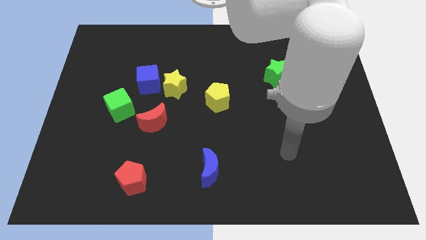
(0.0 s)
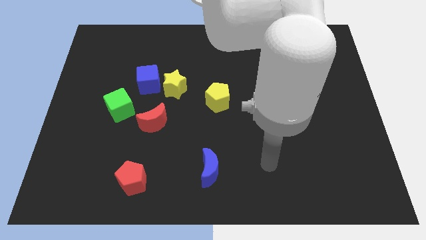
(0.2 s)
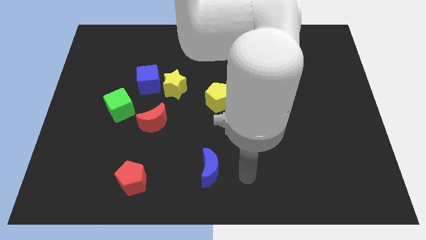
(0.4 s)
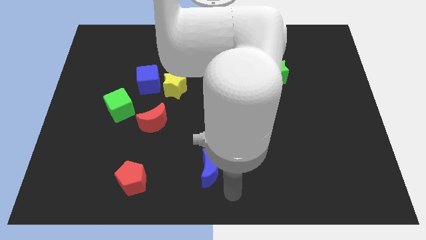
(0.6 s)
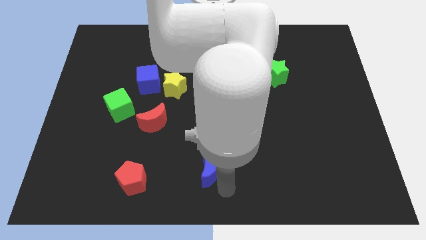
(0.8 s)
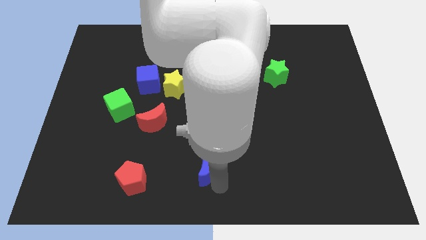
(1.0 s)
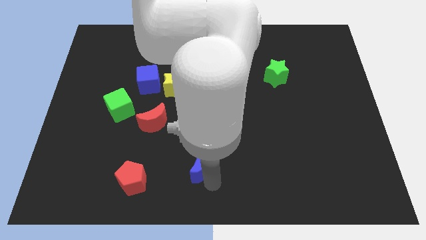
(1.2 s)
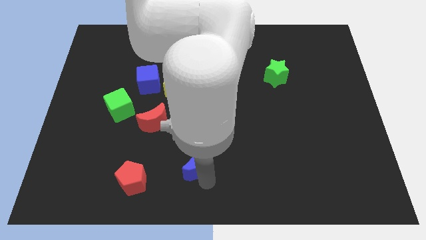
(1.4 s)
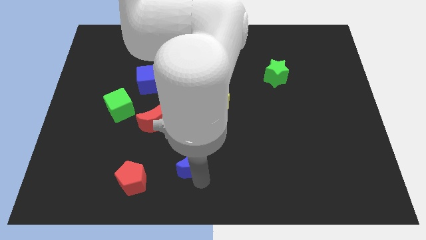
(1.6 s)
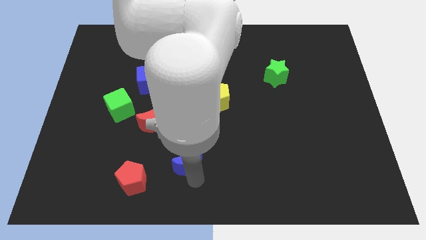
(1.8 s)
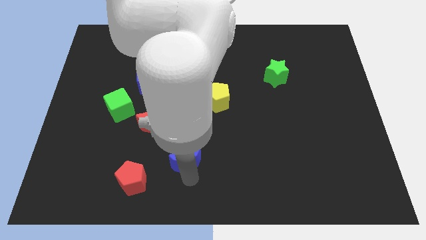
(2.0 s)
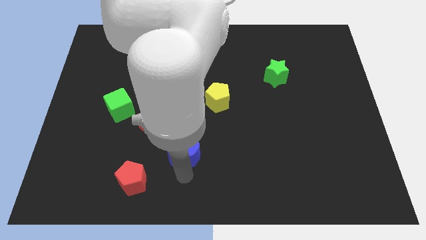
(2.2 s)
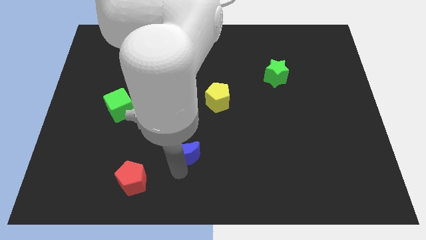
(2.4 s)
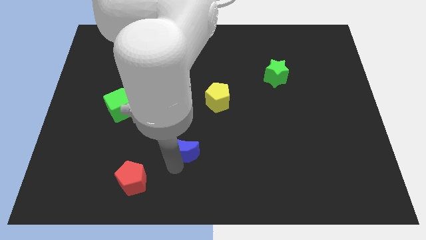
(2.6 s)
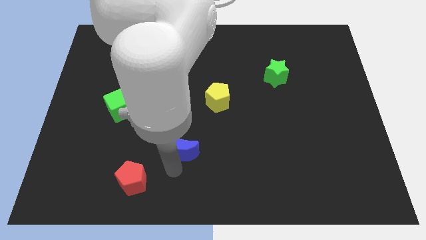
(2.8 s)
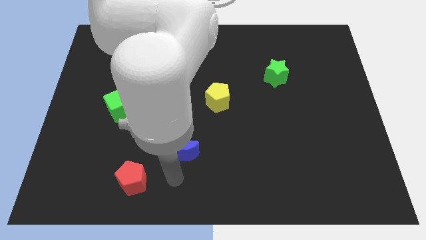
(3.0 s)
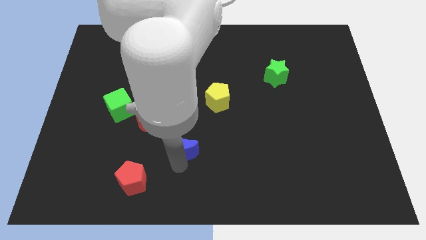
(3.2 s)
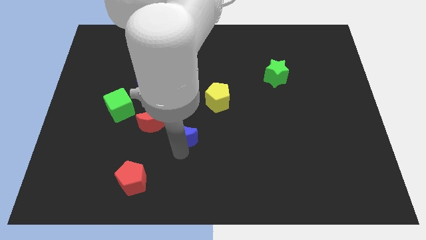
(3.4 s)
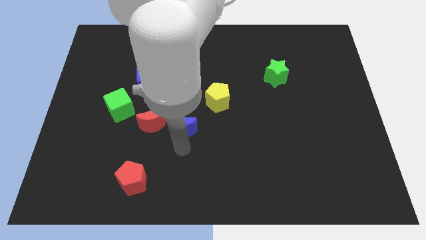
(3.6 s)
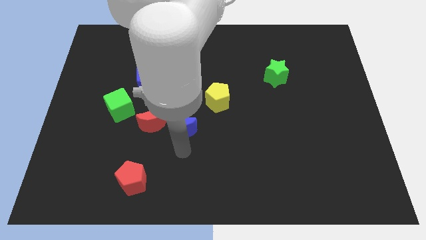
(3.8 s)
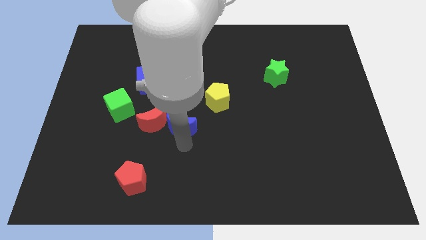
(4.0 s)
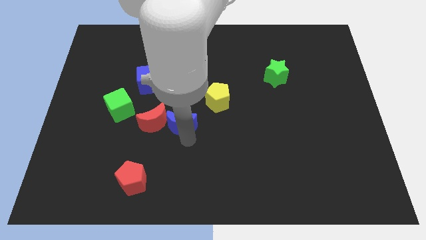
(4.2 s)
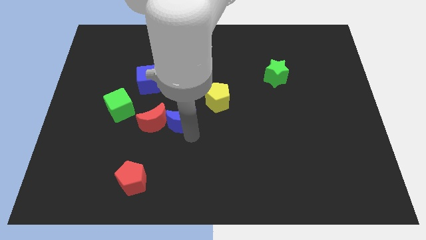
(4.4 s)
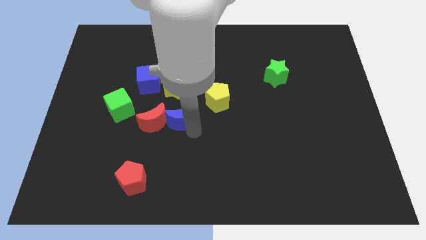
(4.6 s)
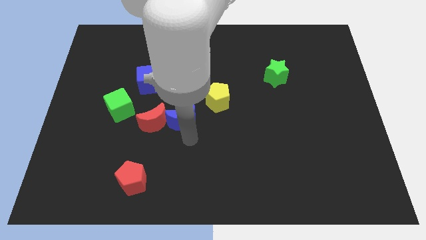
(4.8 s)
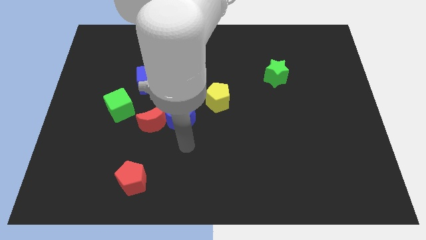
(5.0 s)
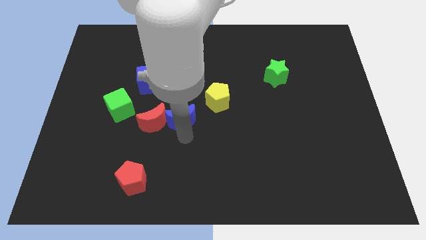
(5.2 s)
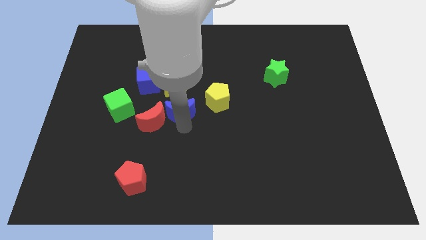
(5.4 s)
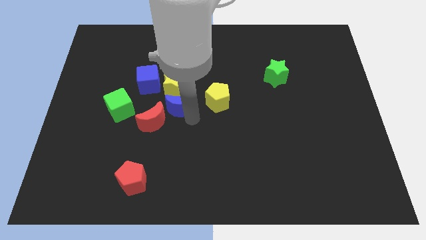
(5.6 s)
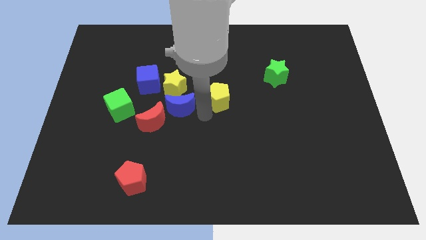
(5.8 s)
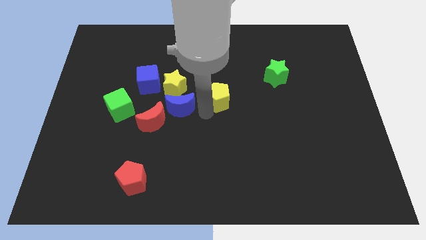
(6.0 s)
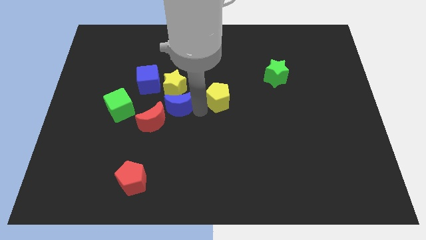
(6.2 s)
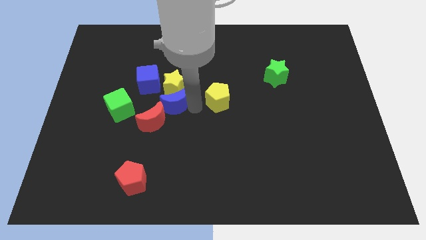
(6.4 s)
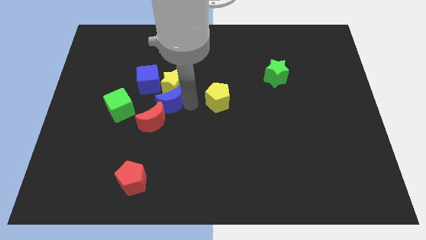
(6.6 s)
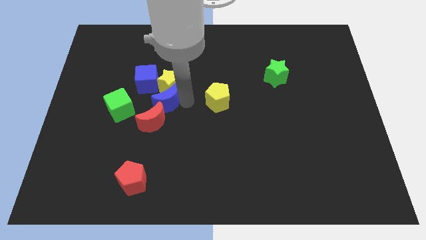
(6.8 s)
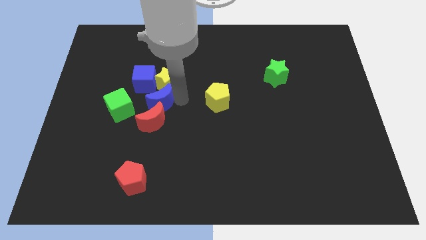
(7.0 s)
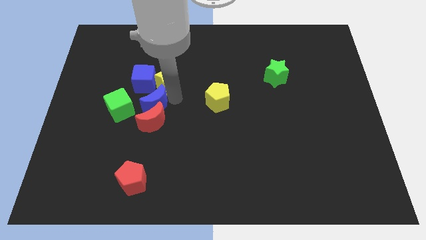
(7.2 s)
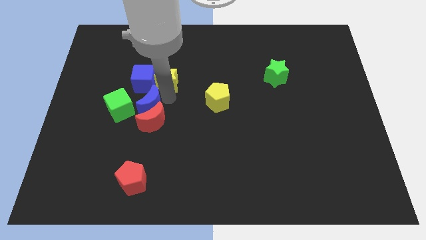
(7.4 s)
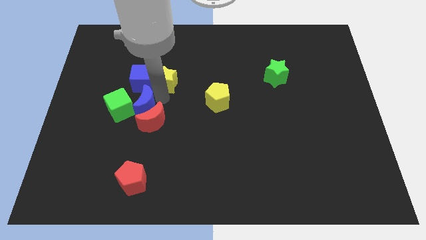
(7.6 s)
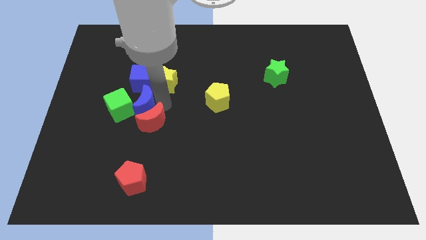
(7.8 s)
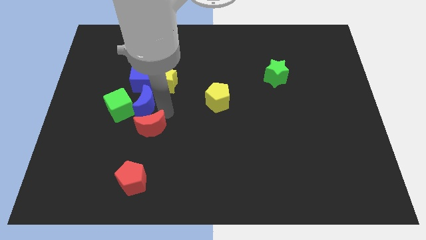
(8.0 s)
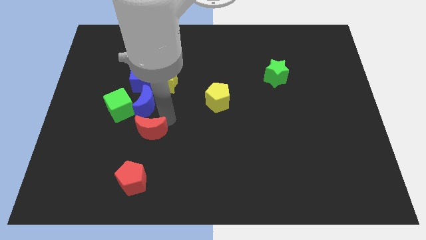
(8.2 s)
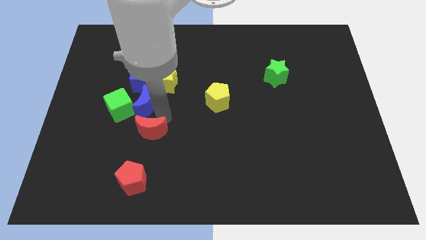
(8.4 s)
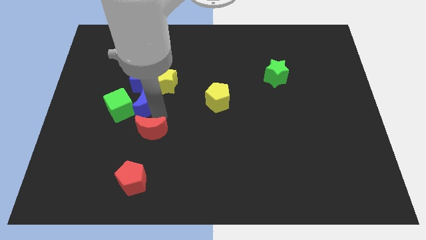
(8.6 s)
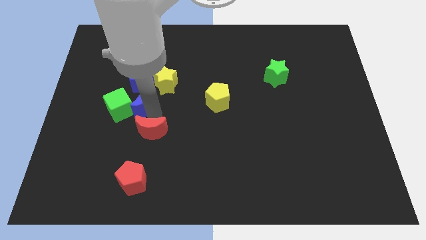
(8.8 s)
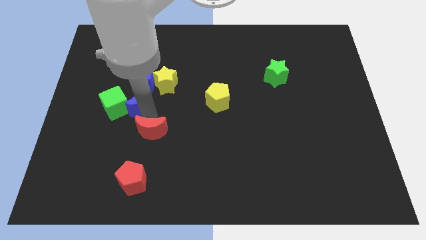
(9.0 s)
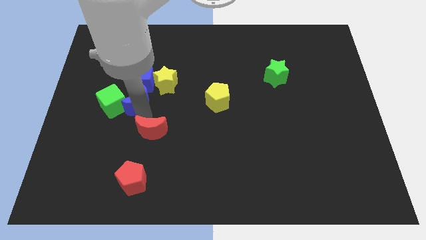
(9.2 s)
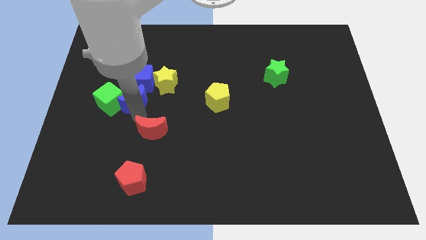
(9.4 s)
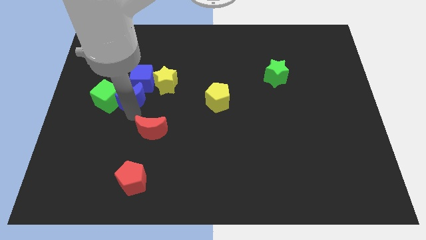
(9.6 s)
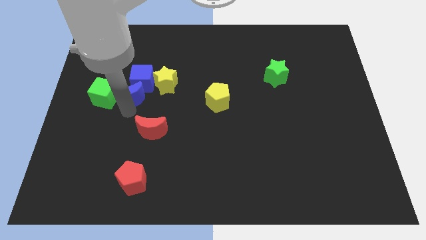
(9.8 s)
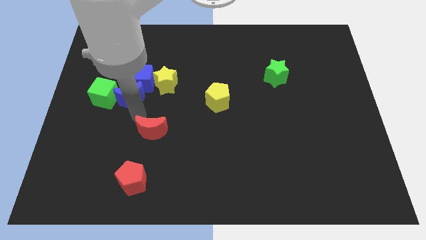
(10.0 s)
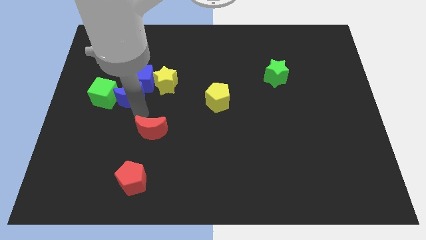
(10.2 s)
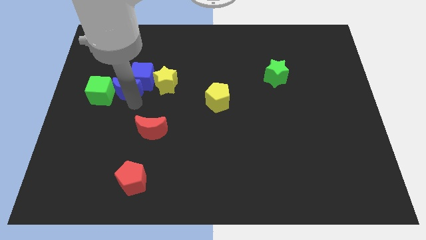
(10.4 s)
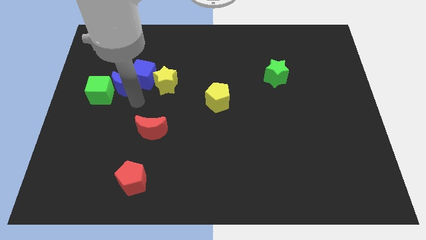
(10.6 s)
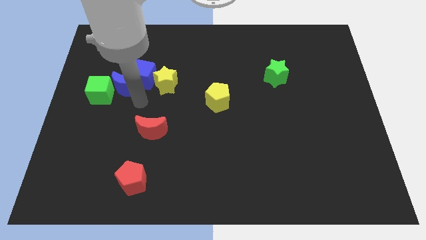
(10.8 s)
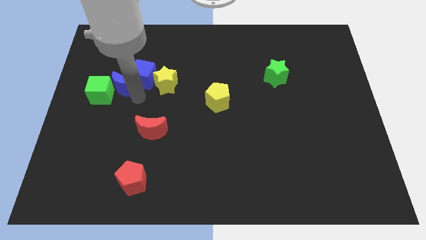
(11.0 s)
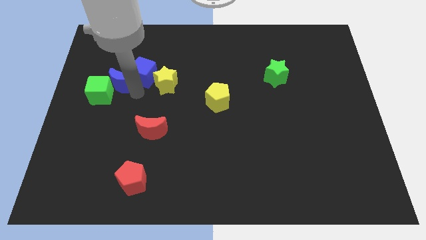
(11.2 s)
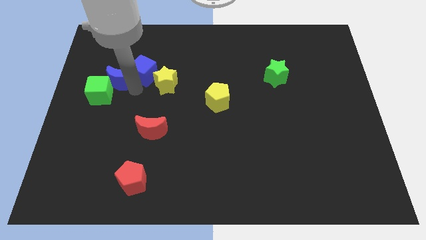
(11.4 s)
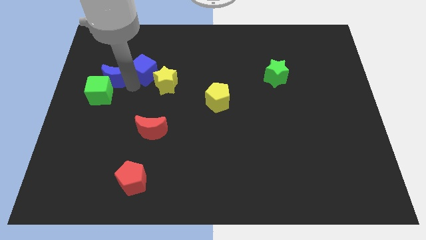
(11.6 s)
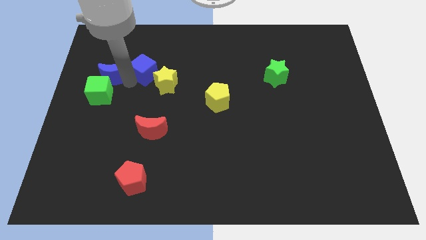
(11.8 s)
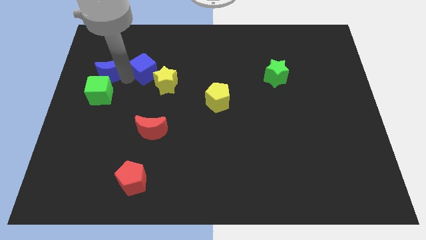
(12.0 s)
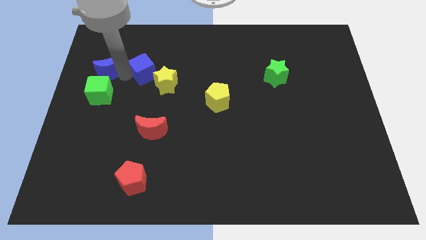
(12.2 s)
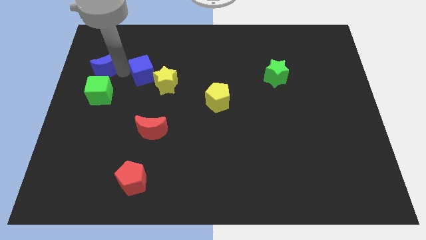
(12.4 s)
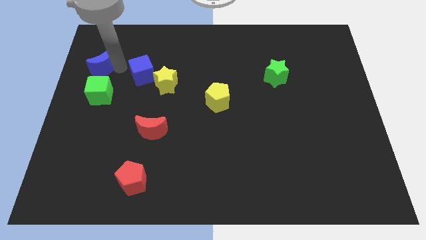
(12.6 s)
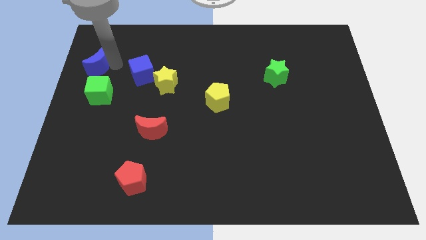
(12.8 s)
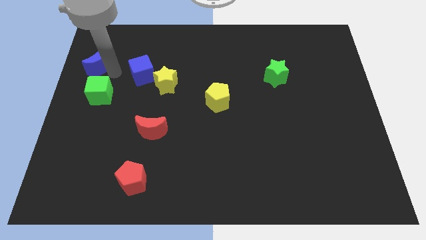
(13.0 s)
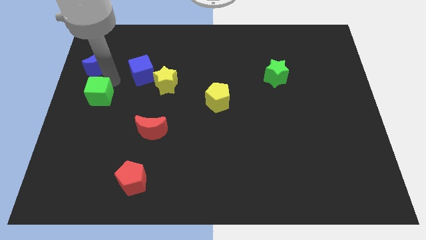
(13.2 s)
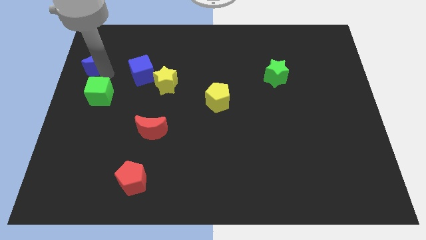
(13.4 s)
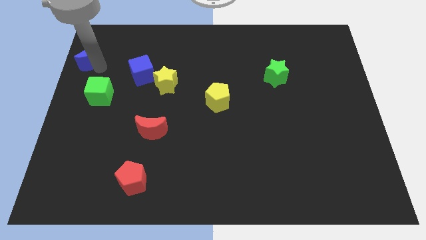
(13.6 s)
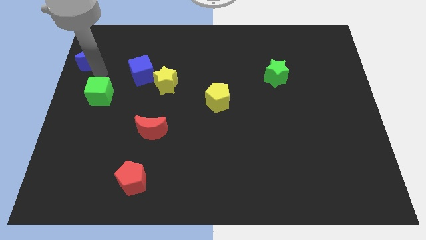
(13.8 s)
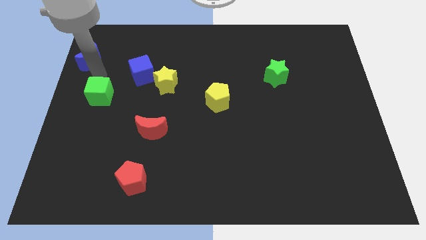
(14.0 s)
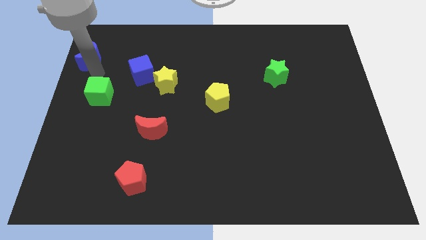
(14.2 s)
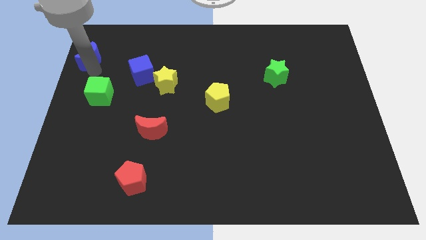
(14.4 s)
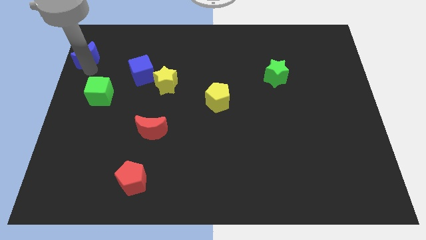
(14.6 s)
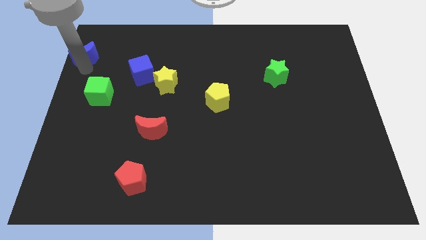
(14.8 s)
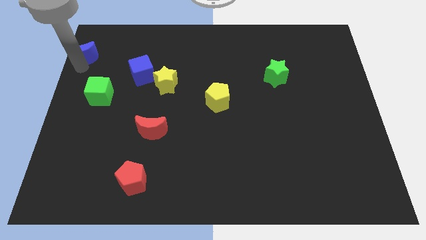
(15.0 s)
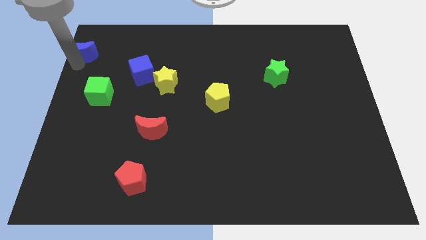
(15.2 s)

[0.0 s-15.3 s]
move the blue moon to the top left corner
